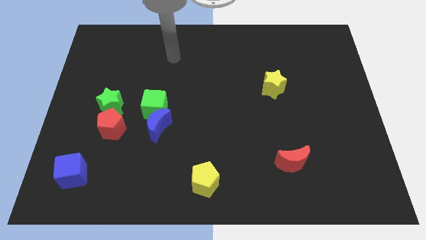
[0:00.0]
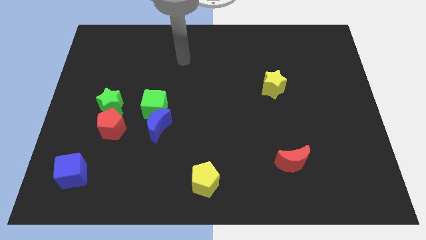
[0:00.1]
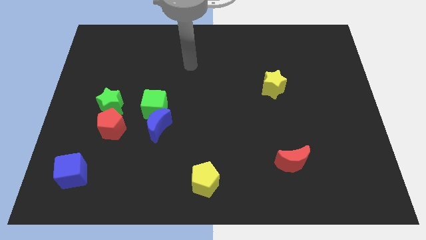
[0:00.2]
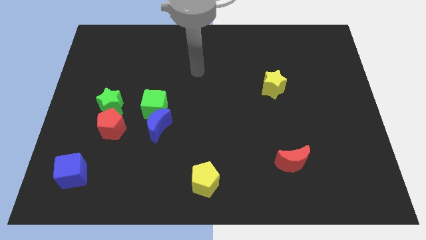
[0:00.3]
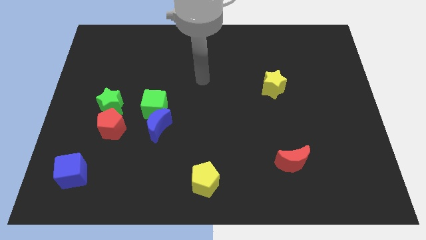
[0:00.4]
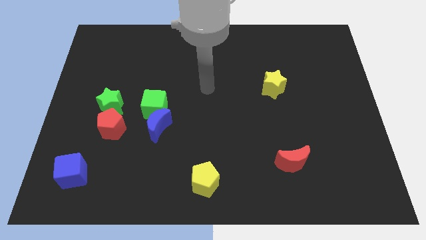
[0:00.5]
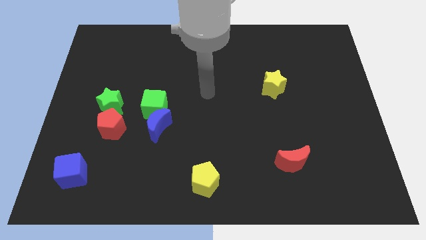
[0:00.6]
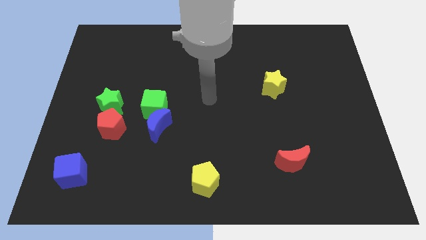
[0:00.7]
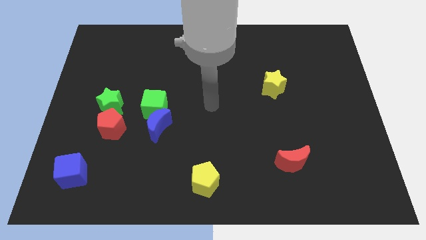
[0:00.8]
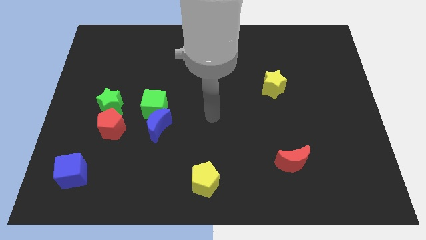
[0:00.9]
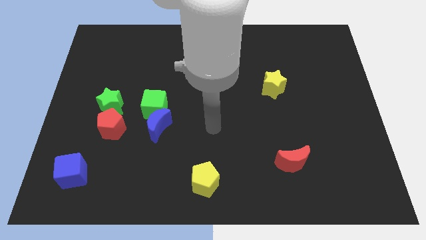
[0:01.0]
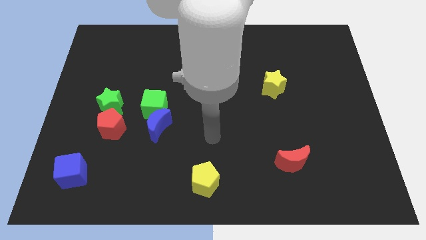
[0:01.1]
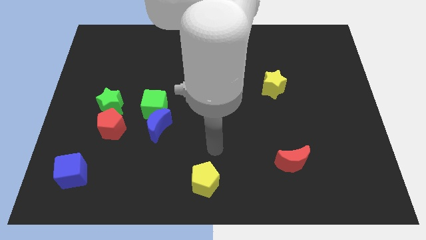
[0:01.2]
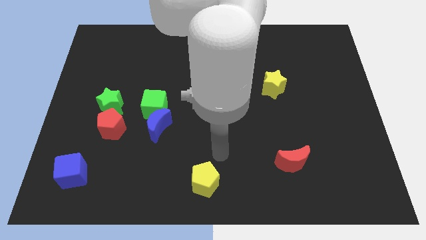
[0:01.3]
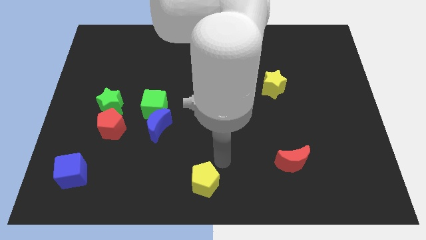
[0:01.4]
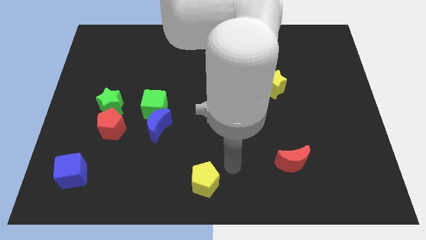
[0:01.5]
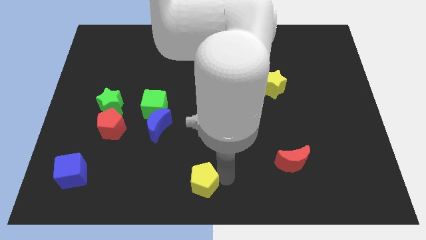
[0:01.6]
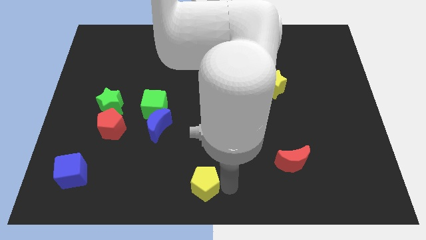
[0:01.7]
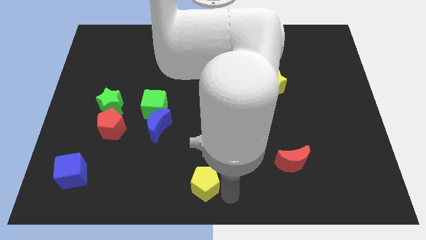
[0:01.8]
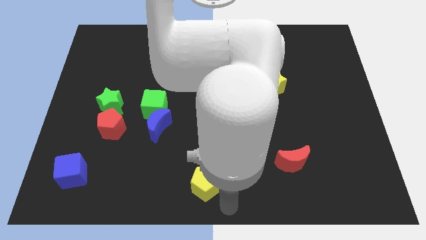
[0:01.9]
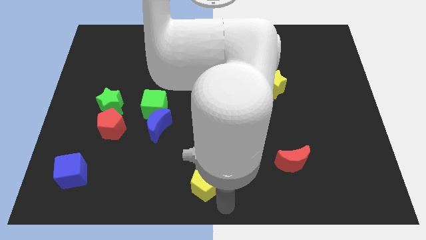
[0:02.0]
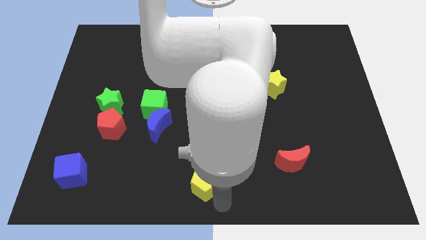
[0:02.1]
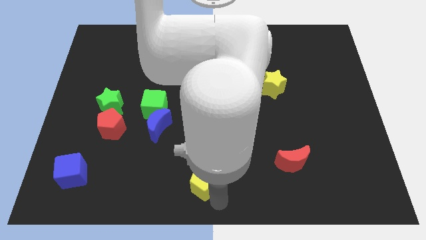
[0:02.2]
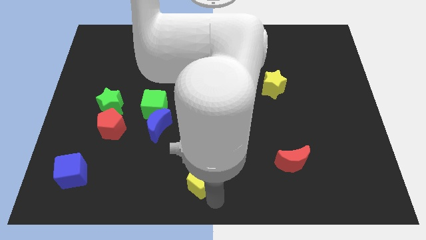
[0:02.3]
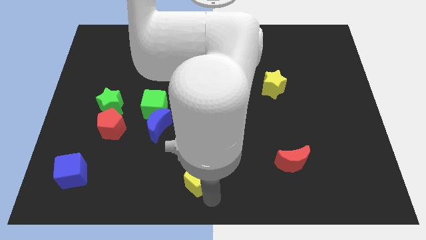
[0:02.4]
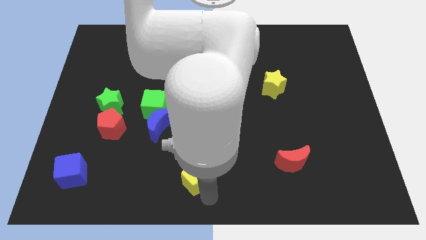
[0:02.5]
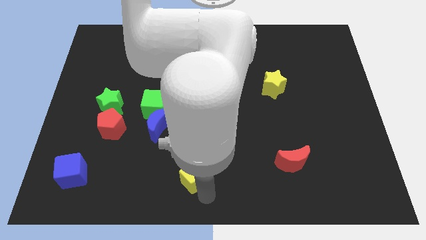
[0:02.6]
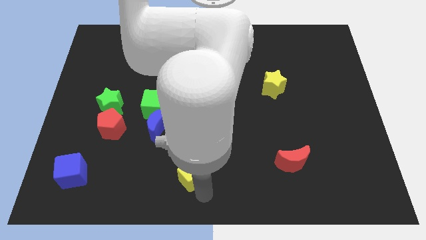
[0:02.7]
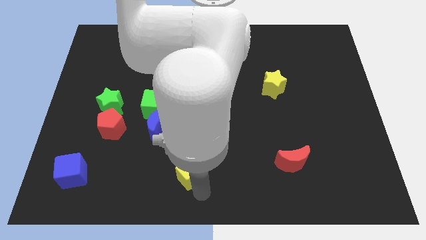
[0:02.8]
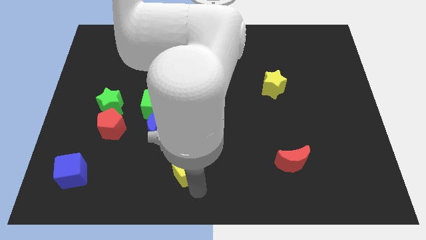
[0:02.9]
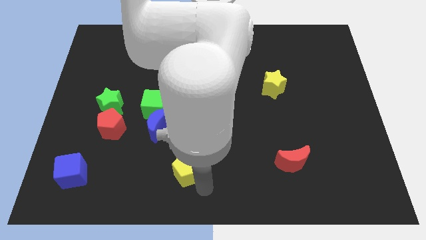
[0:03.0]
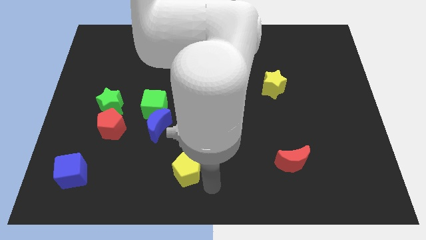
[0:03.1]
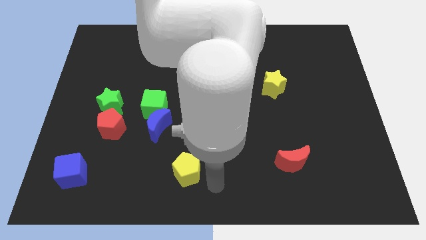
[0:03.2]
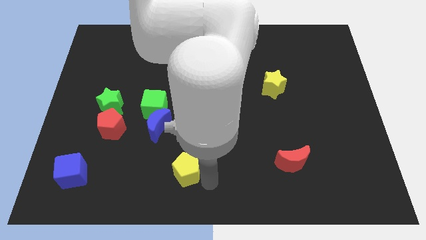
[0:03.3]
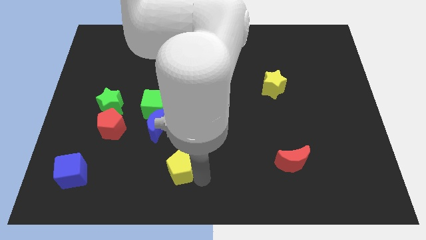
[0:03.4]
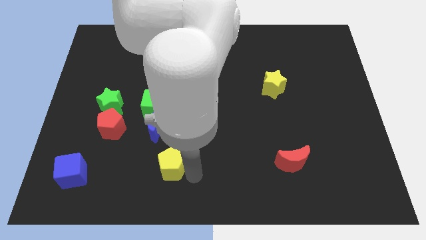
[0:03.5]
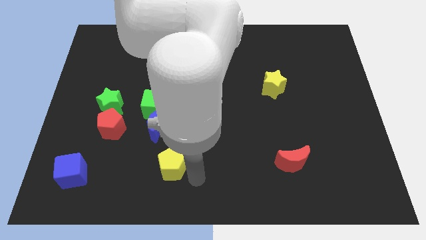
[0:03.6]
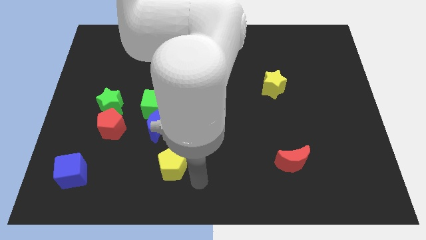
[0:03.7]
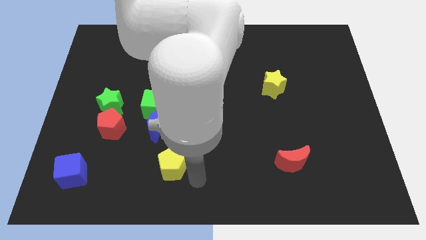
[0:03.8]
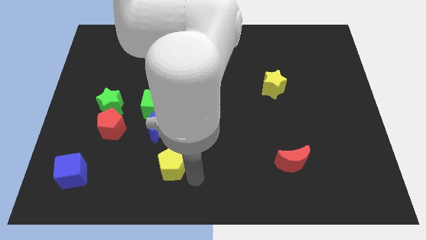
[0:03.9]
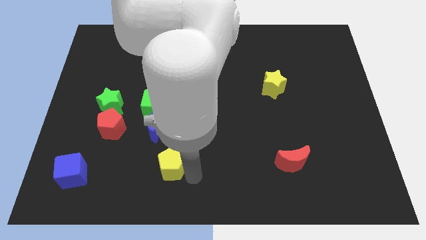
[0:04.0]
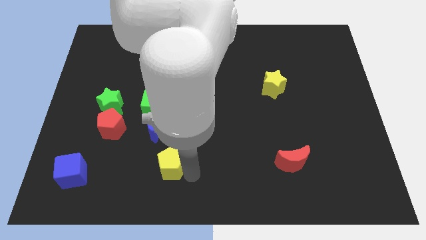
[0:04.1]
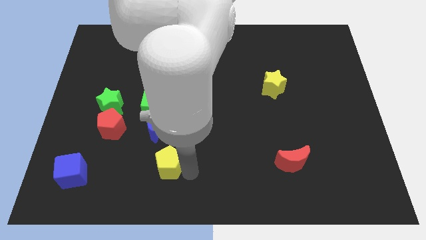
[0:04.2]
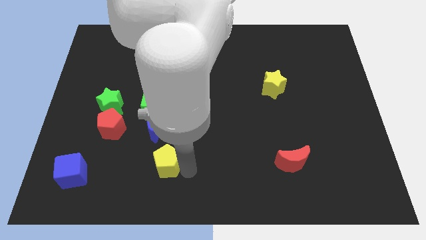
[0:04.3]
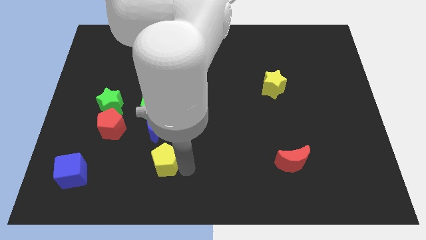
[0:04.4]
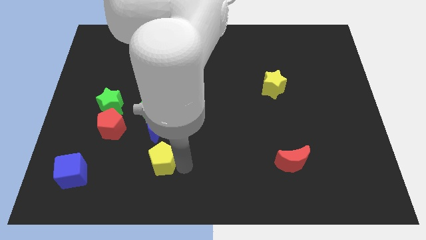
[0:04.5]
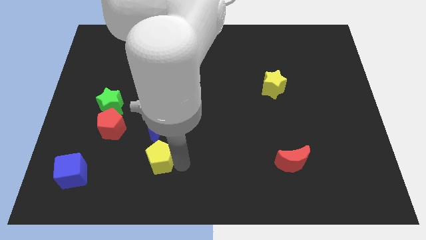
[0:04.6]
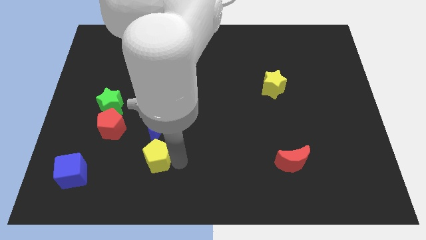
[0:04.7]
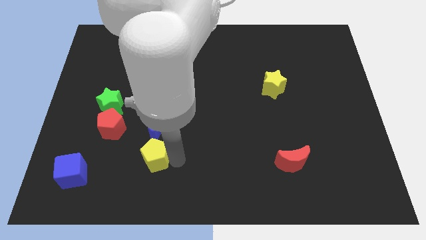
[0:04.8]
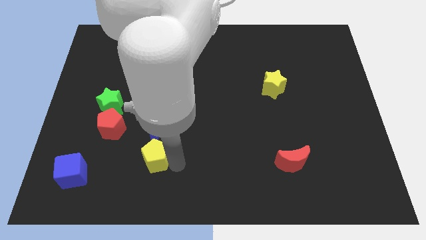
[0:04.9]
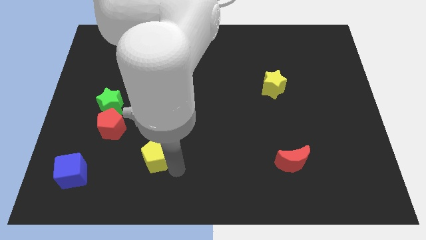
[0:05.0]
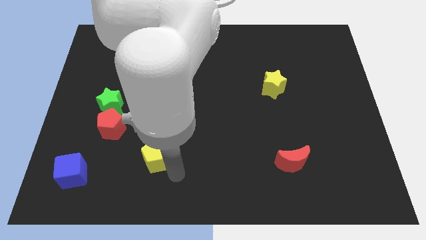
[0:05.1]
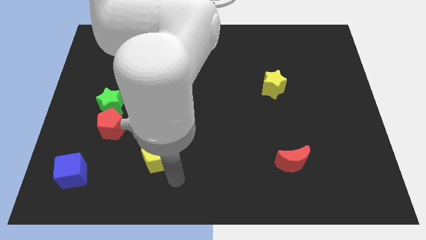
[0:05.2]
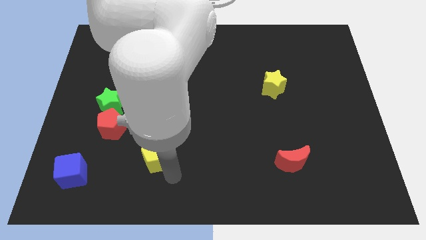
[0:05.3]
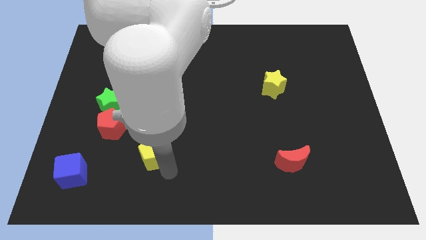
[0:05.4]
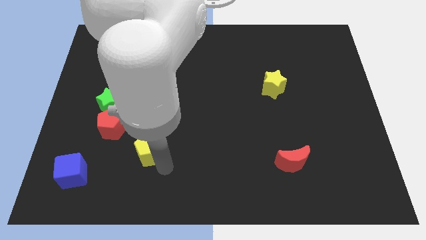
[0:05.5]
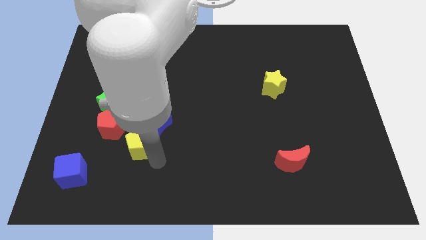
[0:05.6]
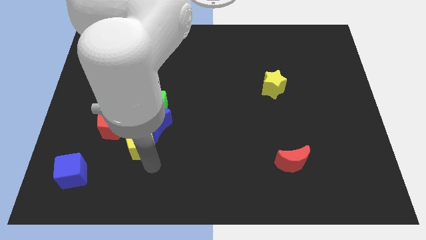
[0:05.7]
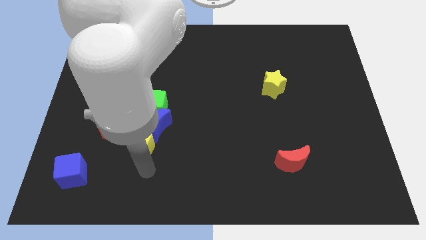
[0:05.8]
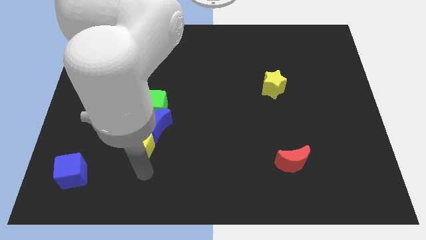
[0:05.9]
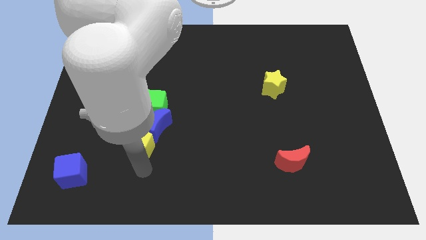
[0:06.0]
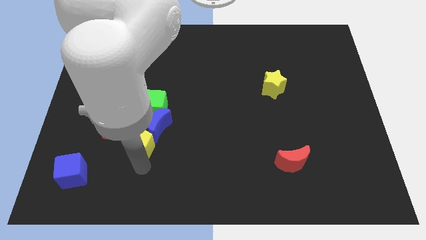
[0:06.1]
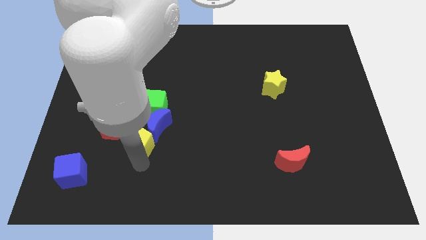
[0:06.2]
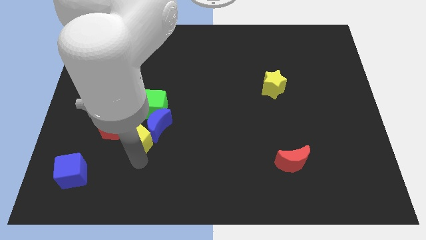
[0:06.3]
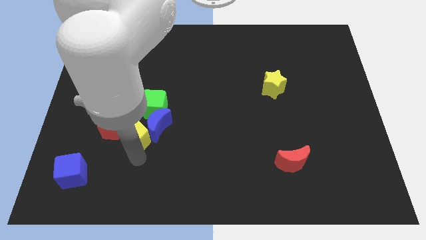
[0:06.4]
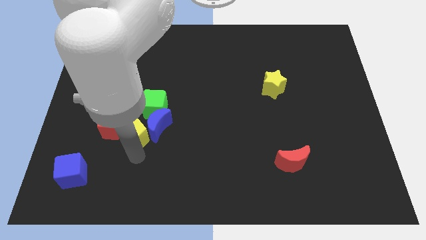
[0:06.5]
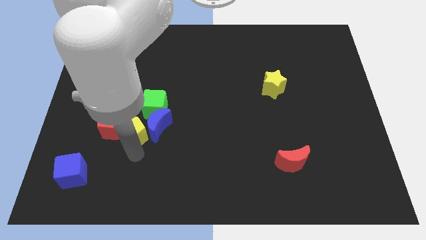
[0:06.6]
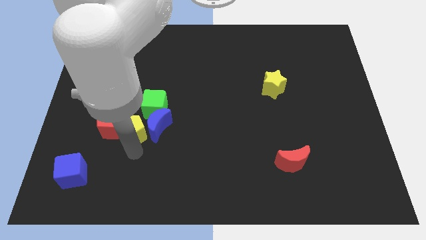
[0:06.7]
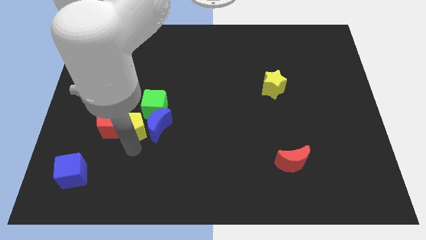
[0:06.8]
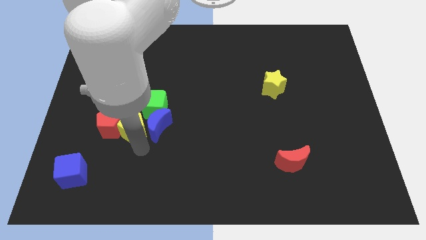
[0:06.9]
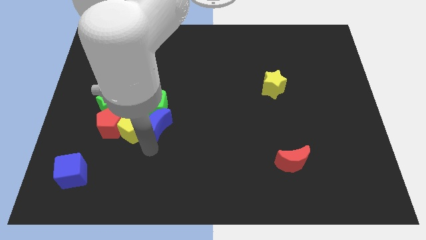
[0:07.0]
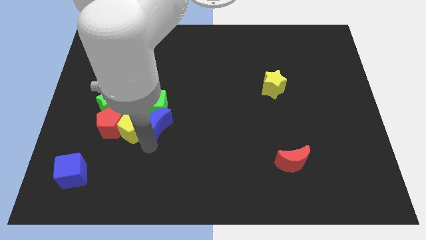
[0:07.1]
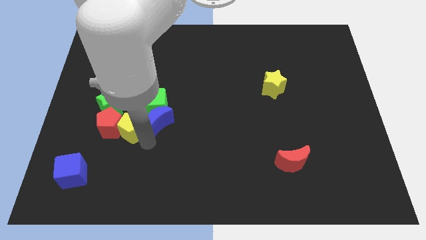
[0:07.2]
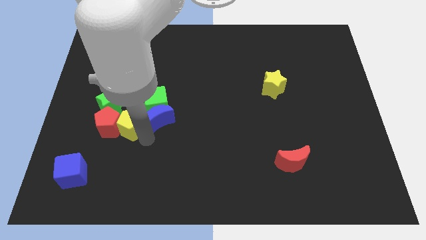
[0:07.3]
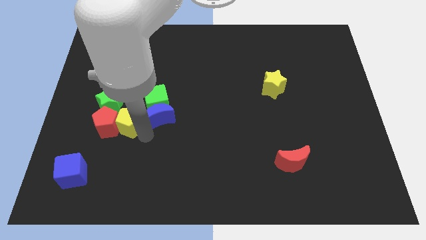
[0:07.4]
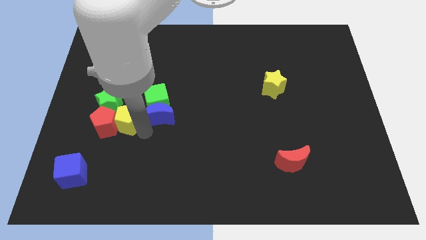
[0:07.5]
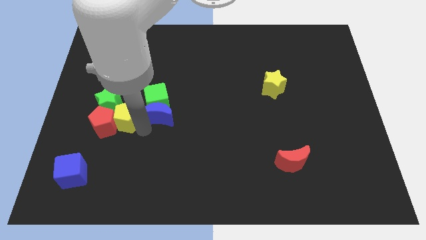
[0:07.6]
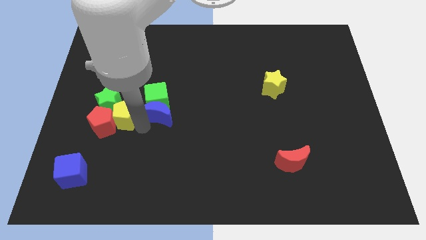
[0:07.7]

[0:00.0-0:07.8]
slide the yellow pentagon close to the green star
